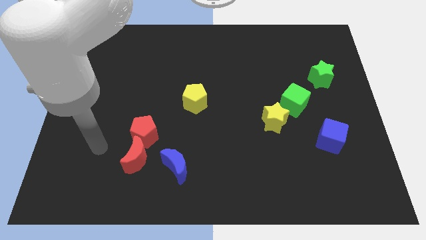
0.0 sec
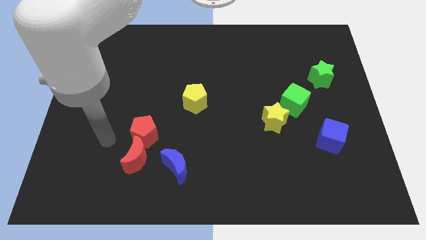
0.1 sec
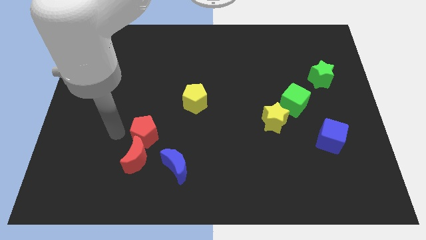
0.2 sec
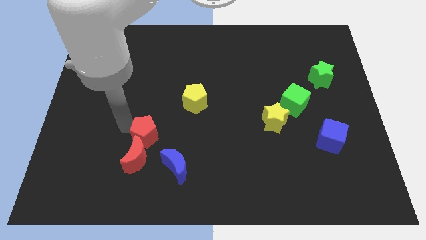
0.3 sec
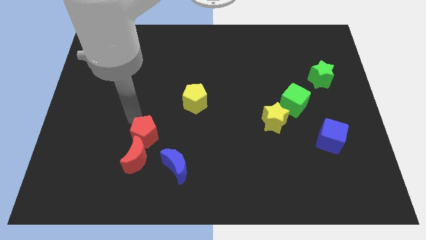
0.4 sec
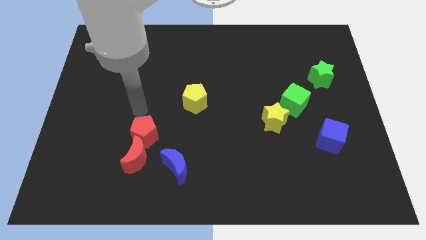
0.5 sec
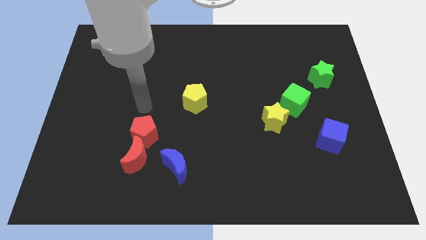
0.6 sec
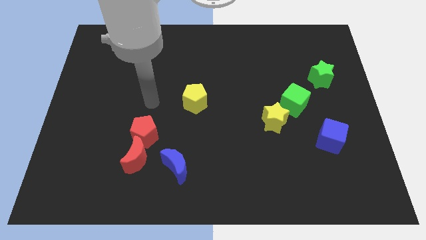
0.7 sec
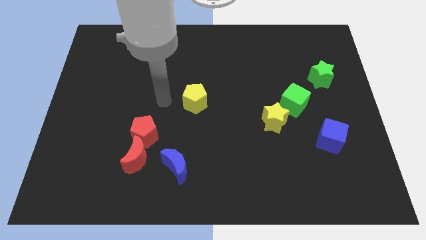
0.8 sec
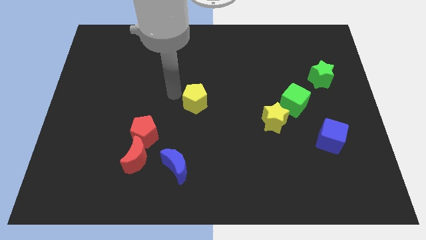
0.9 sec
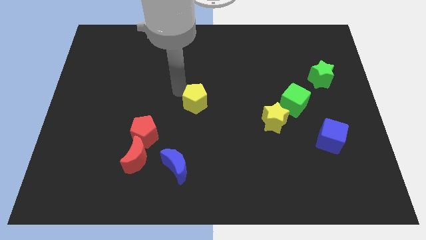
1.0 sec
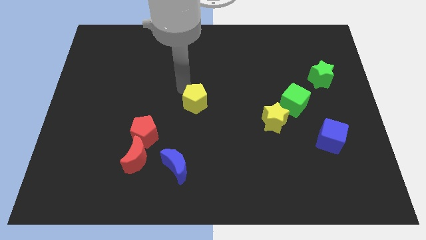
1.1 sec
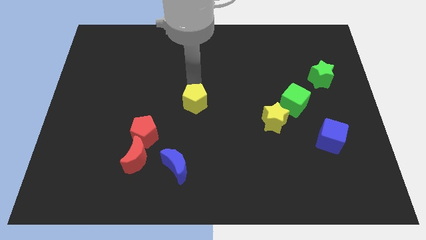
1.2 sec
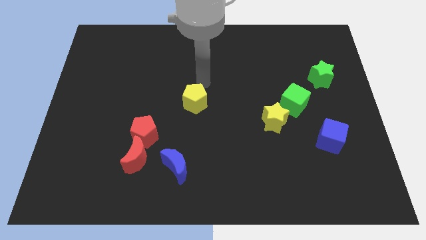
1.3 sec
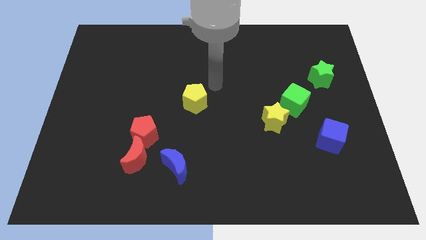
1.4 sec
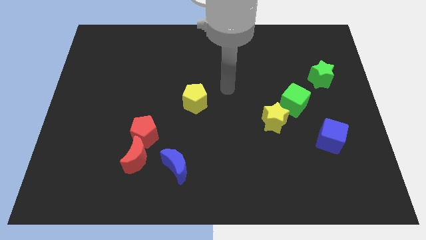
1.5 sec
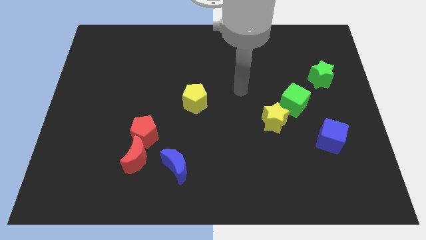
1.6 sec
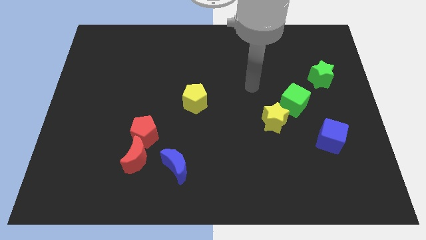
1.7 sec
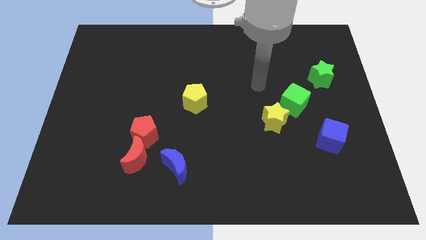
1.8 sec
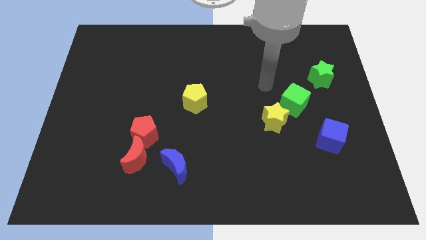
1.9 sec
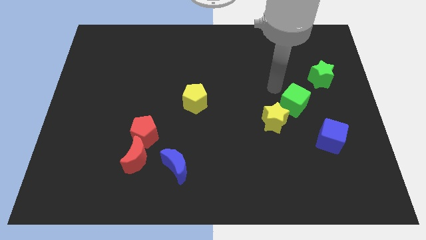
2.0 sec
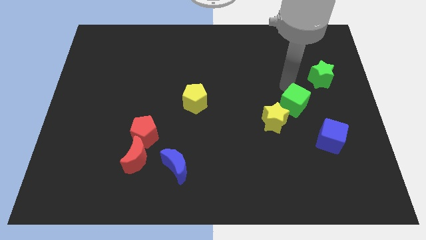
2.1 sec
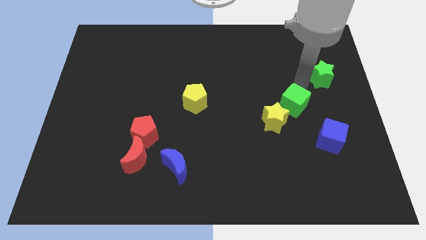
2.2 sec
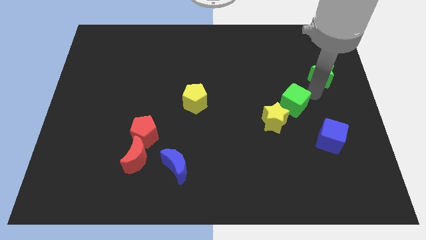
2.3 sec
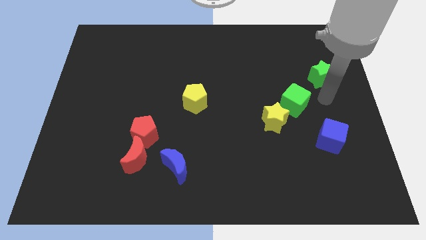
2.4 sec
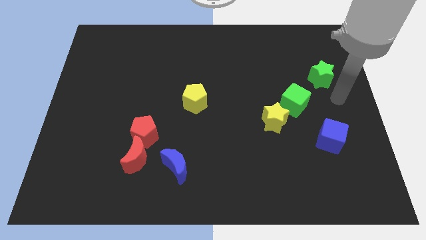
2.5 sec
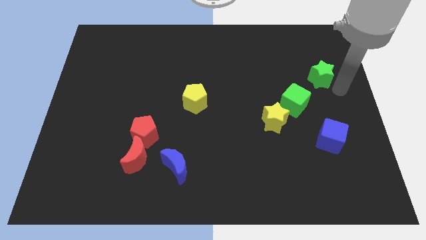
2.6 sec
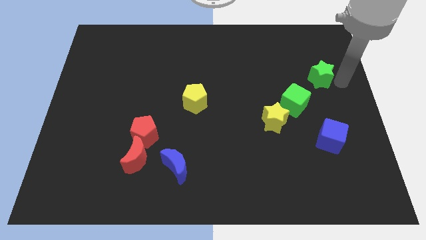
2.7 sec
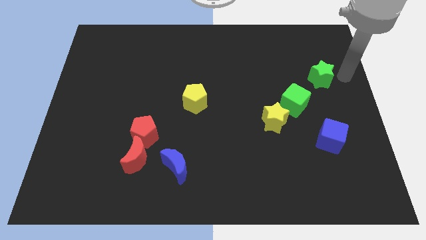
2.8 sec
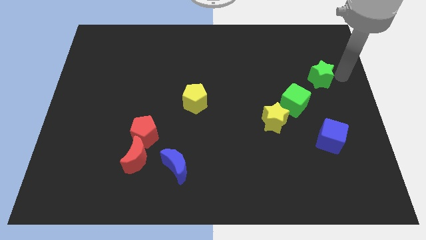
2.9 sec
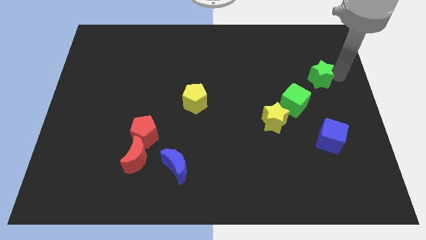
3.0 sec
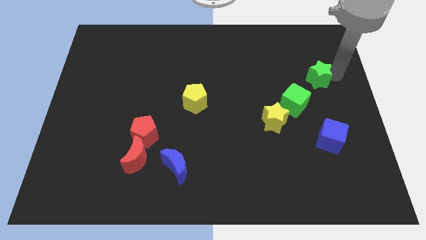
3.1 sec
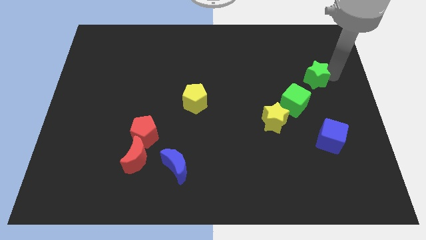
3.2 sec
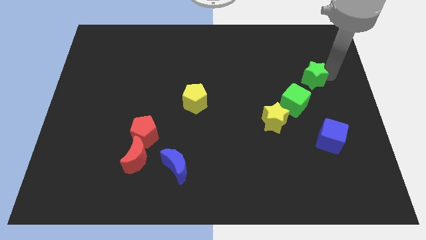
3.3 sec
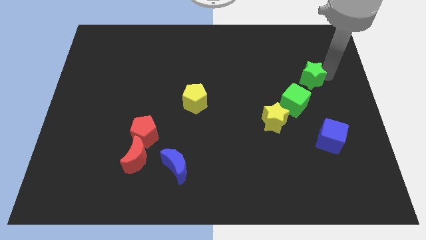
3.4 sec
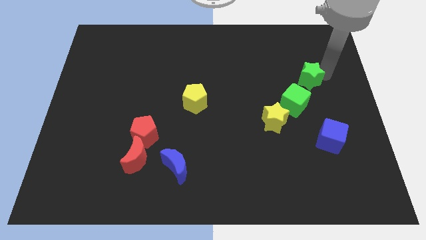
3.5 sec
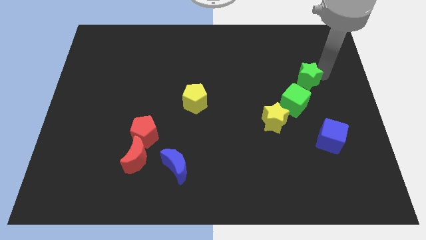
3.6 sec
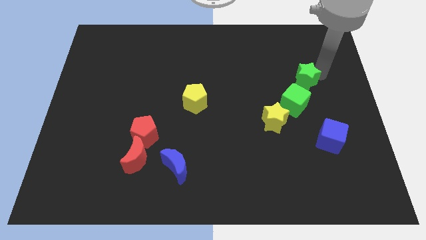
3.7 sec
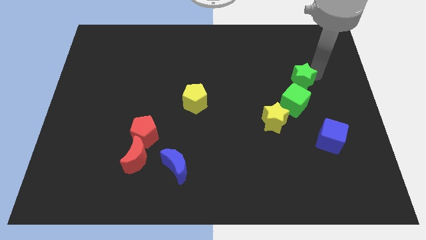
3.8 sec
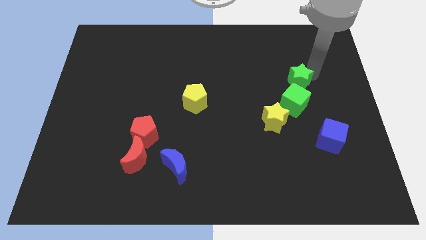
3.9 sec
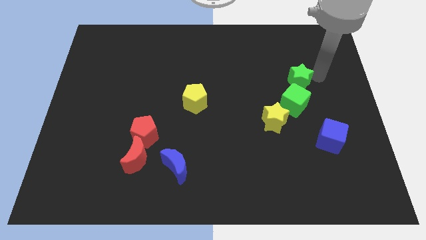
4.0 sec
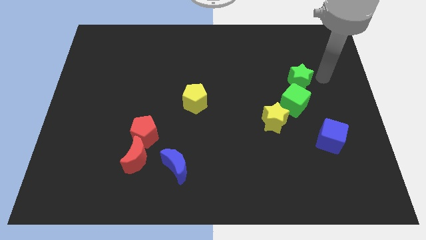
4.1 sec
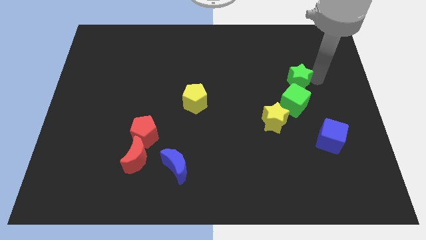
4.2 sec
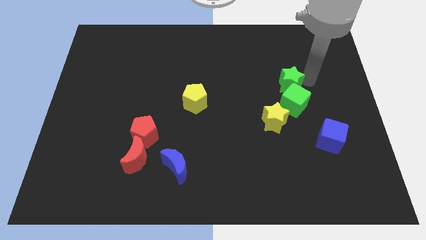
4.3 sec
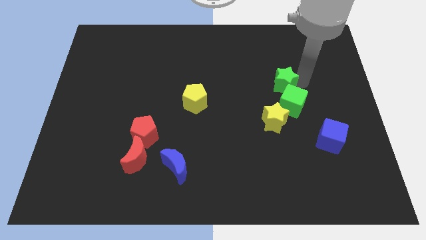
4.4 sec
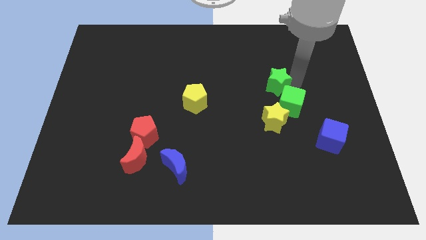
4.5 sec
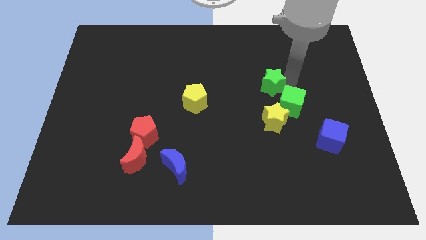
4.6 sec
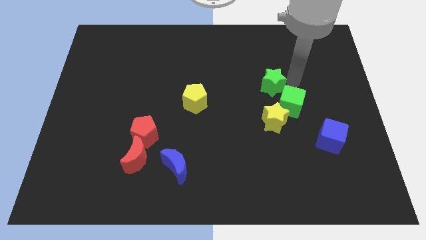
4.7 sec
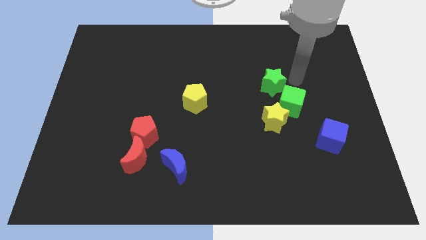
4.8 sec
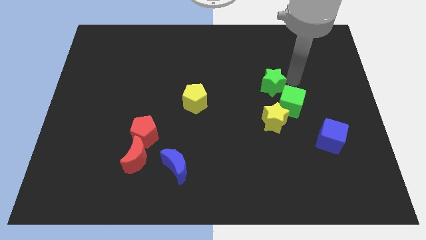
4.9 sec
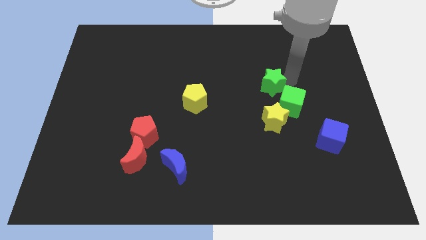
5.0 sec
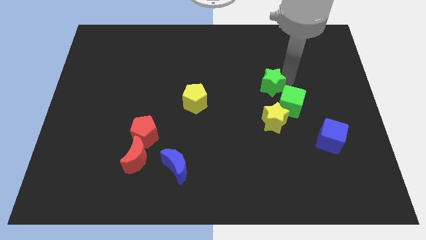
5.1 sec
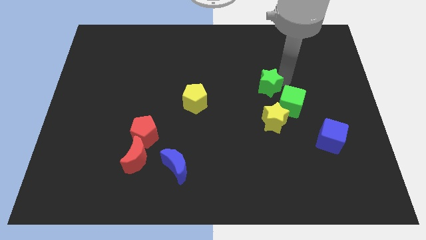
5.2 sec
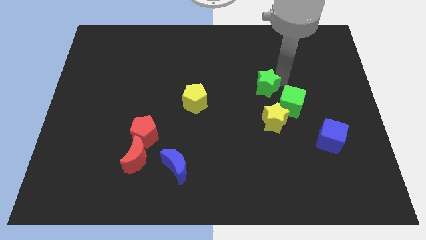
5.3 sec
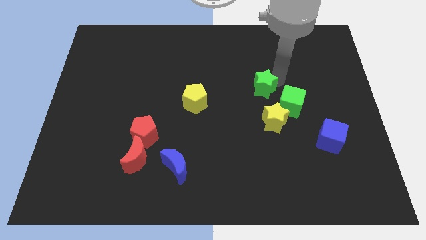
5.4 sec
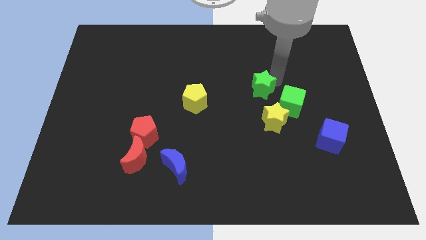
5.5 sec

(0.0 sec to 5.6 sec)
move the green star to the middle of the board
